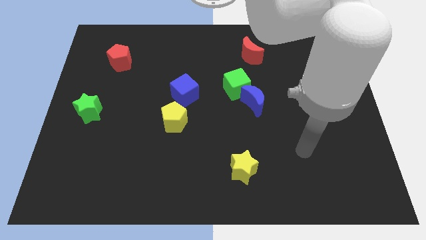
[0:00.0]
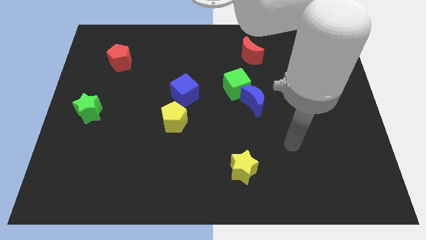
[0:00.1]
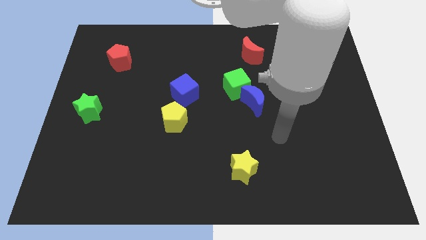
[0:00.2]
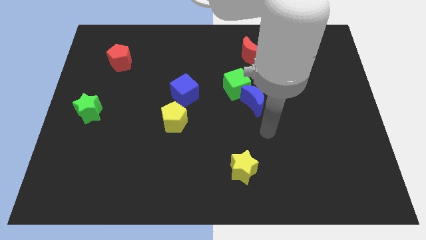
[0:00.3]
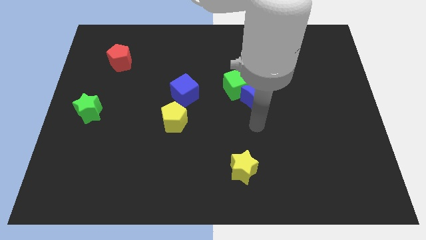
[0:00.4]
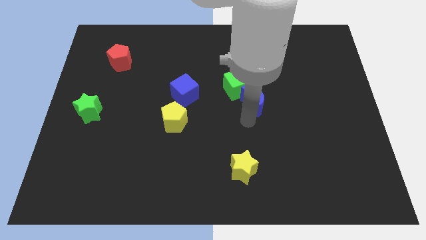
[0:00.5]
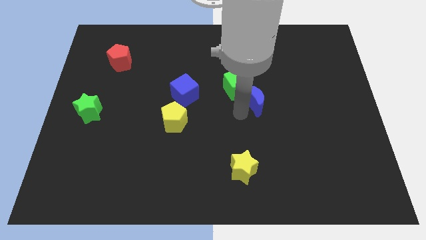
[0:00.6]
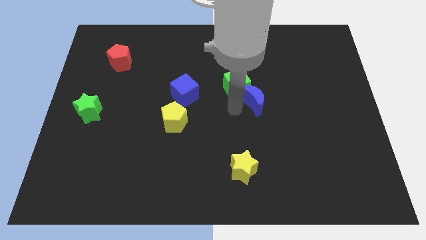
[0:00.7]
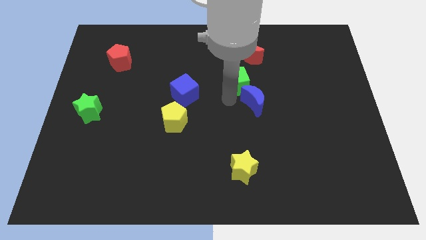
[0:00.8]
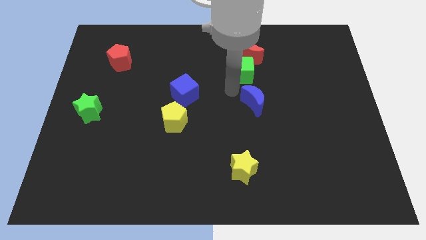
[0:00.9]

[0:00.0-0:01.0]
move the blue moon away from the green cube

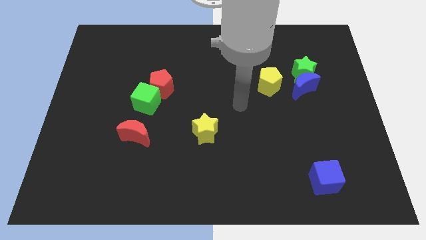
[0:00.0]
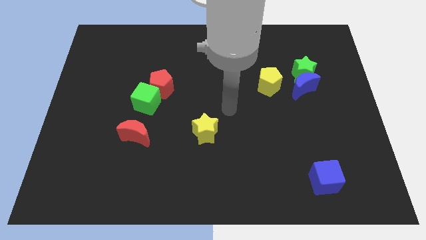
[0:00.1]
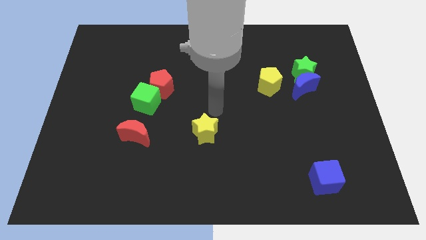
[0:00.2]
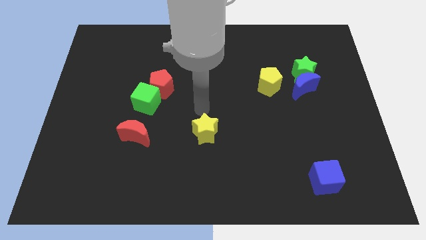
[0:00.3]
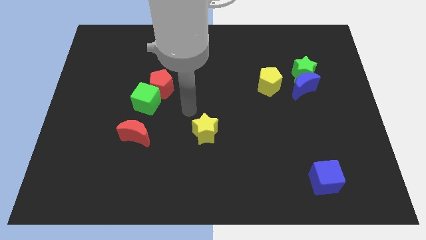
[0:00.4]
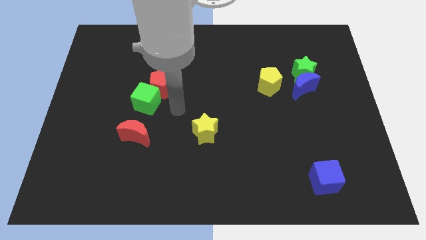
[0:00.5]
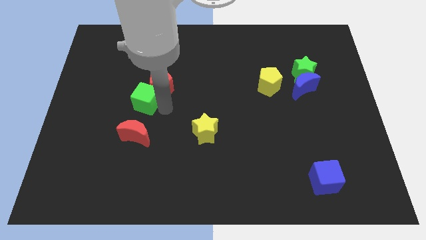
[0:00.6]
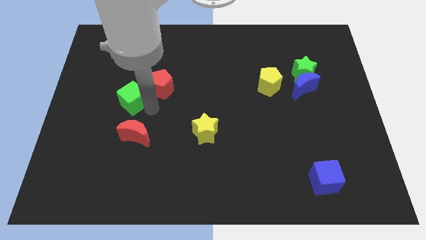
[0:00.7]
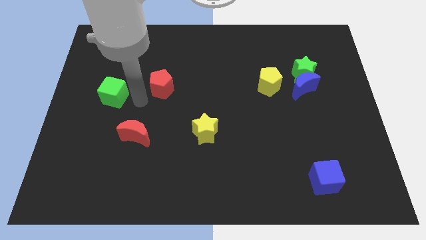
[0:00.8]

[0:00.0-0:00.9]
move the red pentagon away from the green cube

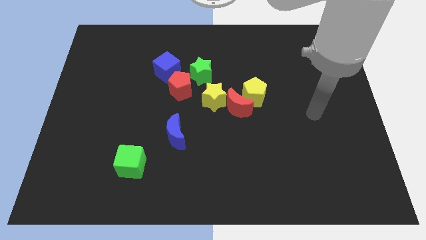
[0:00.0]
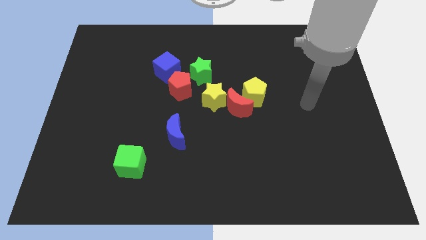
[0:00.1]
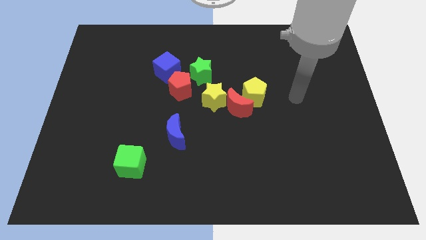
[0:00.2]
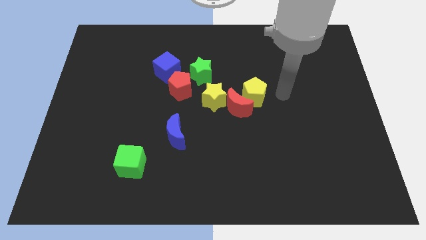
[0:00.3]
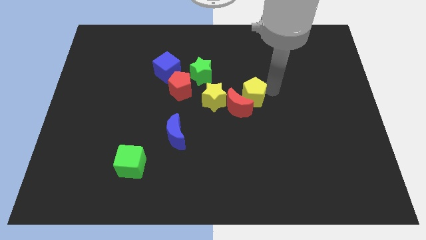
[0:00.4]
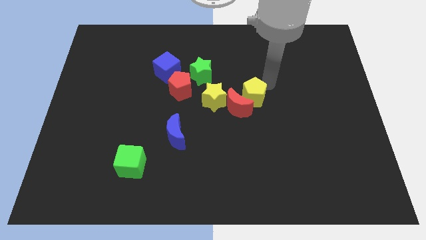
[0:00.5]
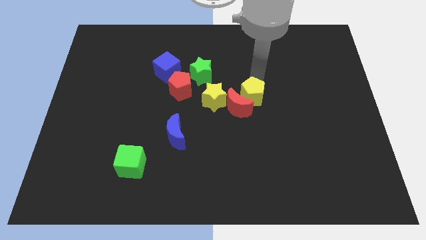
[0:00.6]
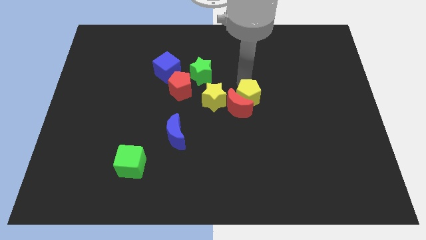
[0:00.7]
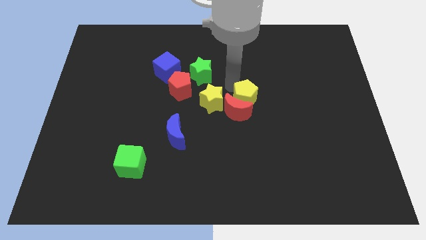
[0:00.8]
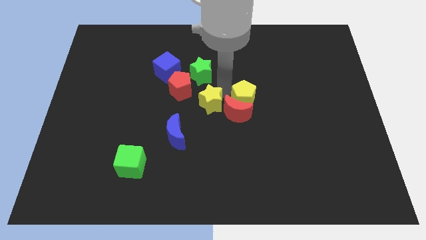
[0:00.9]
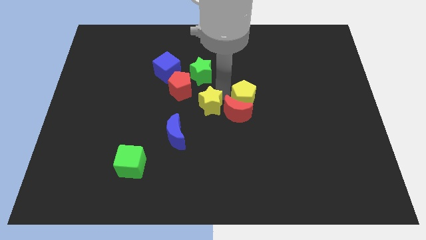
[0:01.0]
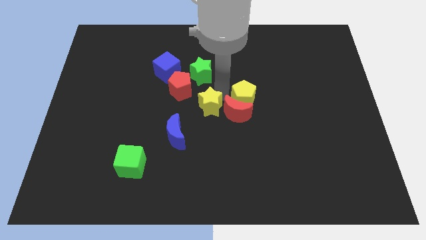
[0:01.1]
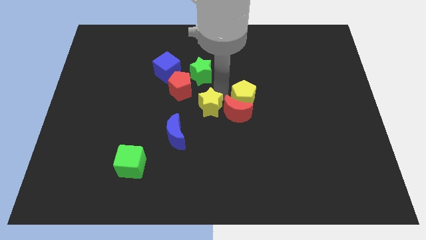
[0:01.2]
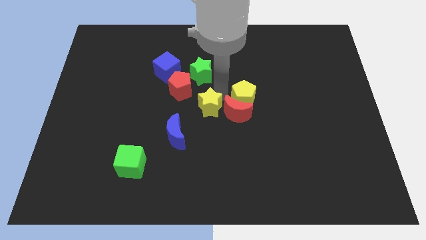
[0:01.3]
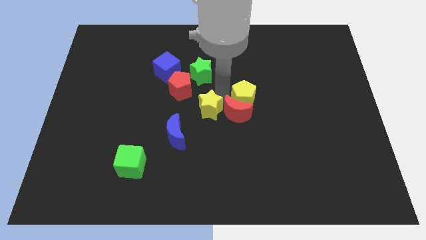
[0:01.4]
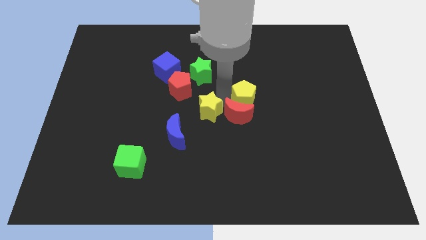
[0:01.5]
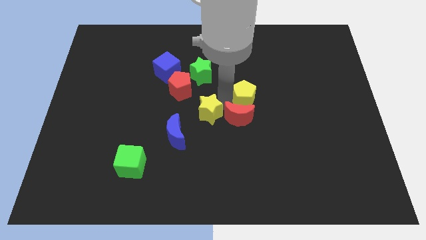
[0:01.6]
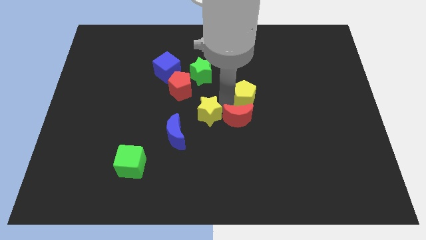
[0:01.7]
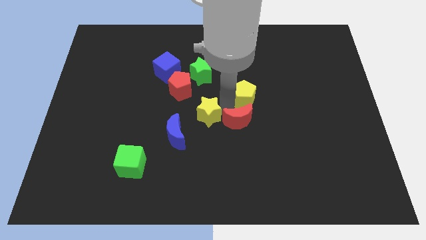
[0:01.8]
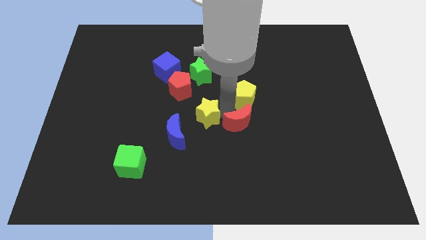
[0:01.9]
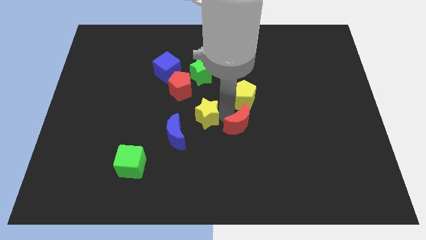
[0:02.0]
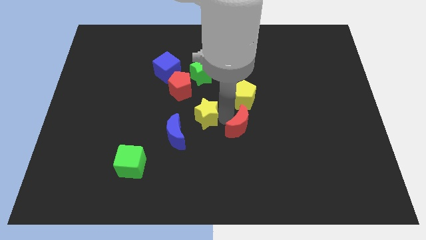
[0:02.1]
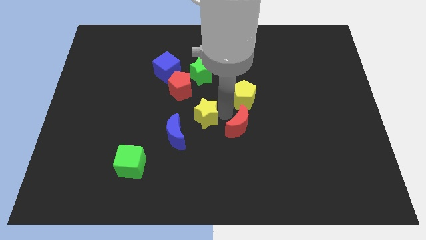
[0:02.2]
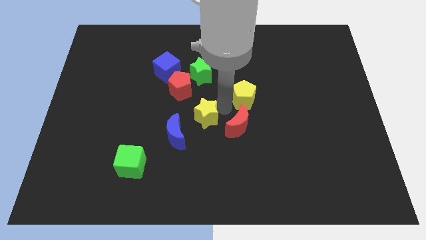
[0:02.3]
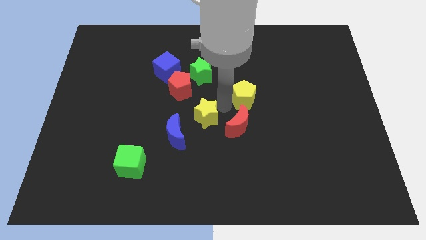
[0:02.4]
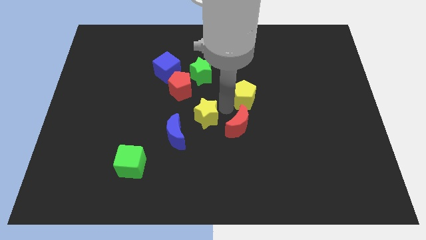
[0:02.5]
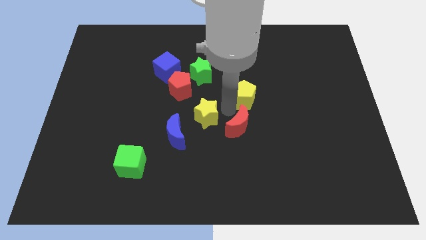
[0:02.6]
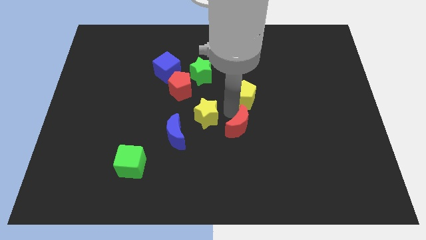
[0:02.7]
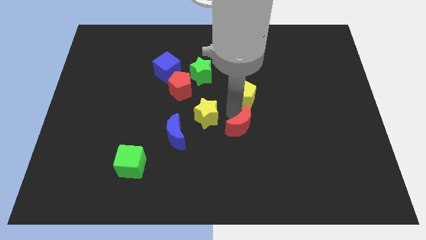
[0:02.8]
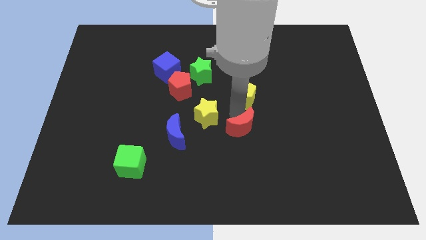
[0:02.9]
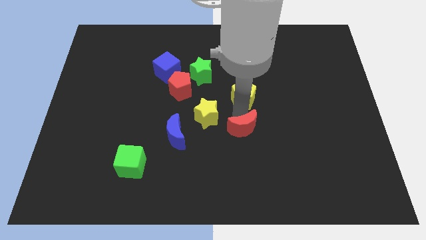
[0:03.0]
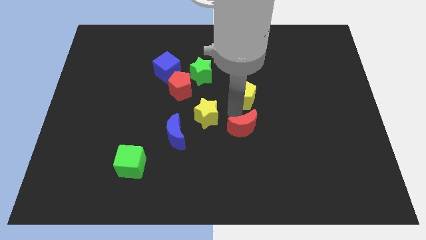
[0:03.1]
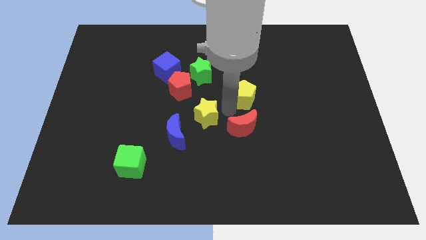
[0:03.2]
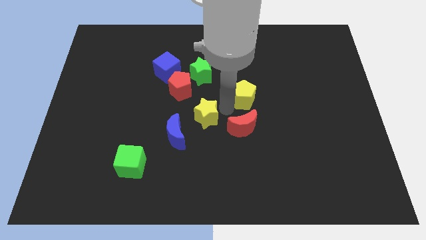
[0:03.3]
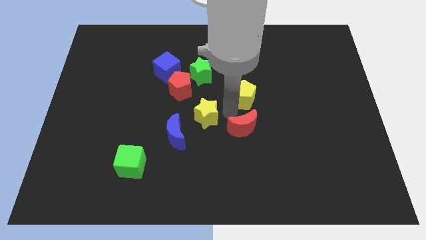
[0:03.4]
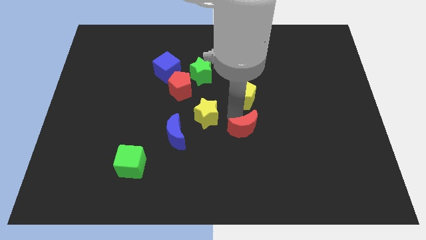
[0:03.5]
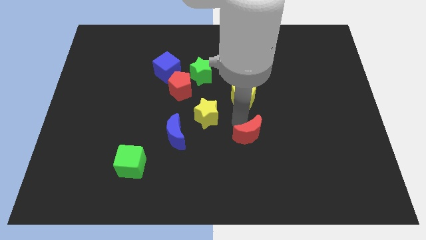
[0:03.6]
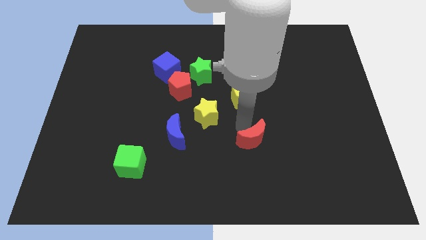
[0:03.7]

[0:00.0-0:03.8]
pull the red moon apart from the yellow pentagon and yellow star

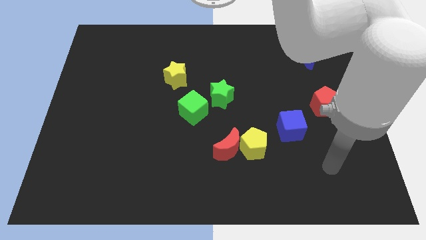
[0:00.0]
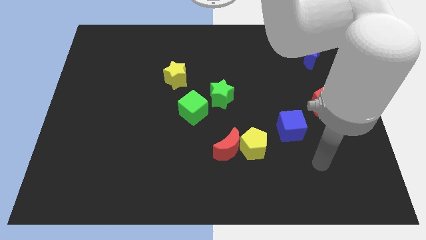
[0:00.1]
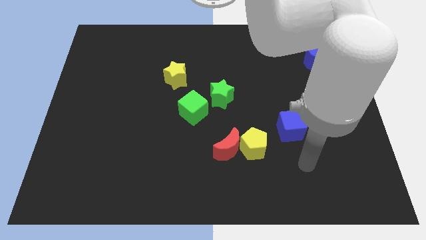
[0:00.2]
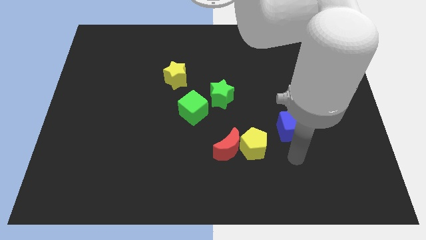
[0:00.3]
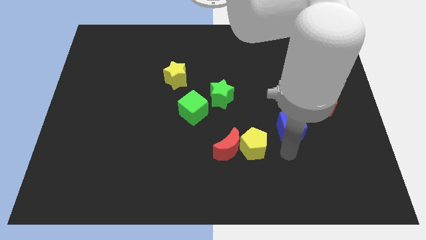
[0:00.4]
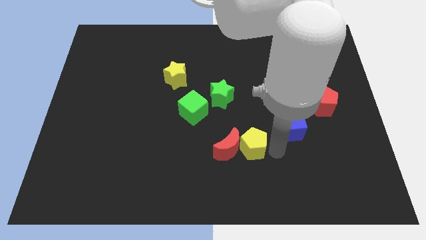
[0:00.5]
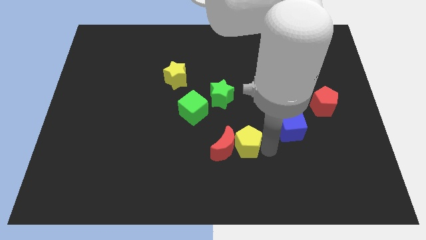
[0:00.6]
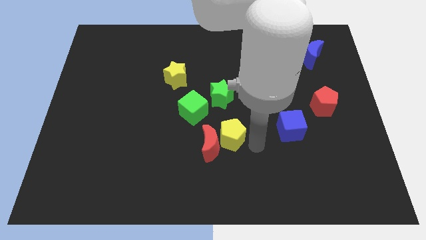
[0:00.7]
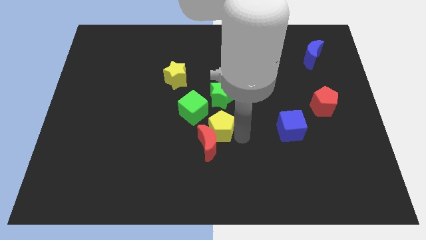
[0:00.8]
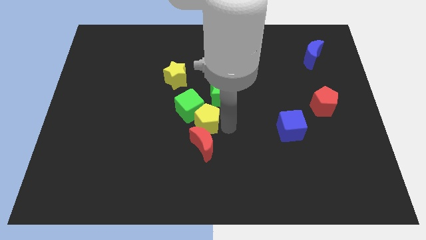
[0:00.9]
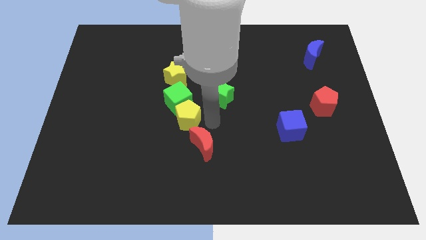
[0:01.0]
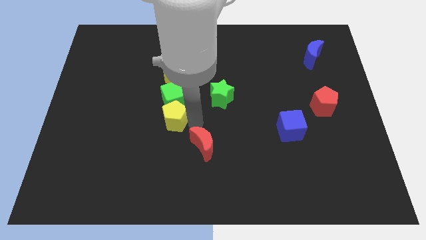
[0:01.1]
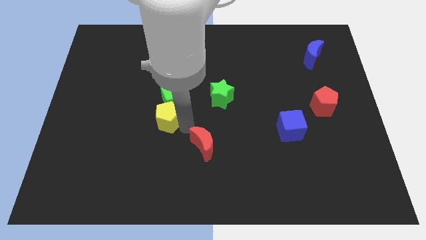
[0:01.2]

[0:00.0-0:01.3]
move the red moon away from the yellow pentagon

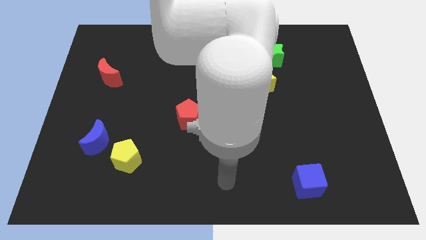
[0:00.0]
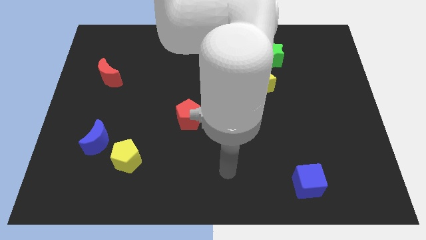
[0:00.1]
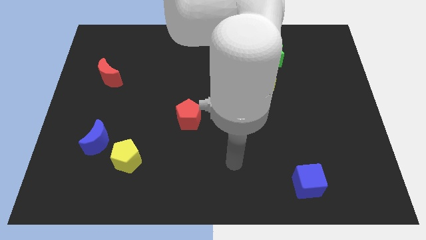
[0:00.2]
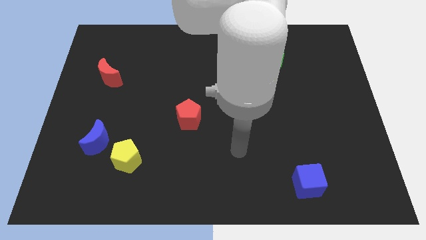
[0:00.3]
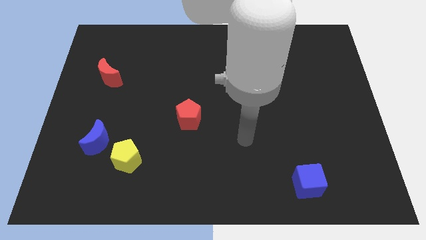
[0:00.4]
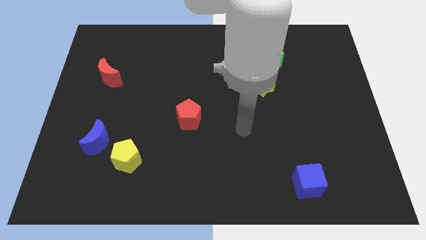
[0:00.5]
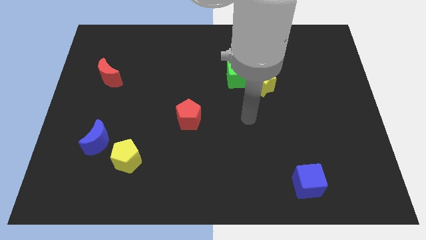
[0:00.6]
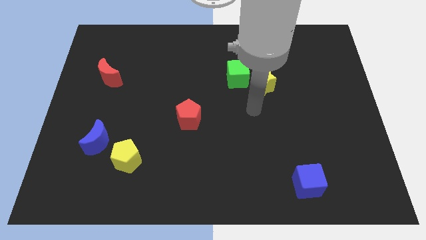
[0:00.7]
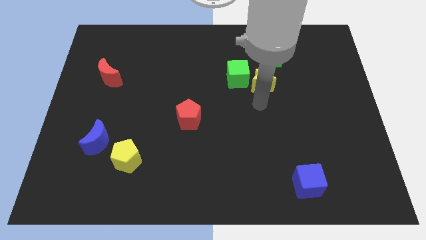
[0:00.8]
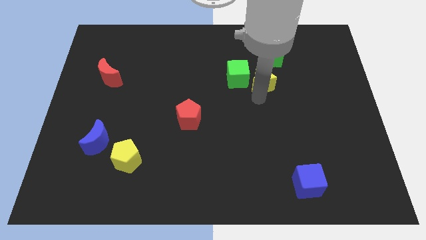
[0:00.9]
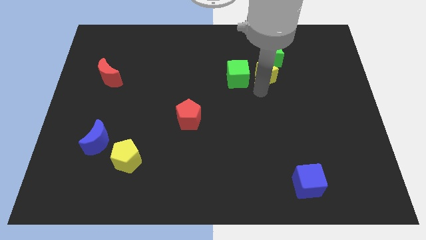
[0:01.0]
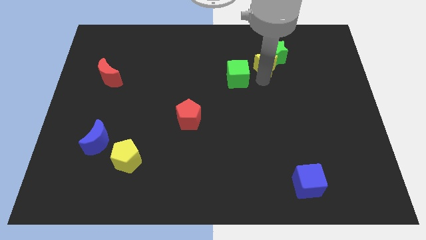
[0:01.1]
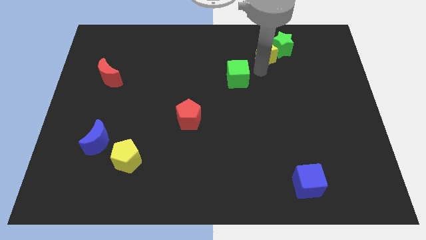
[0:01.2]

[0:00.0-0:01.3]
separate the green cube from the yellow star

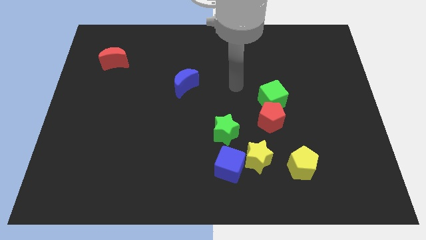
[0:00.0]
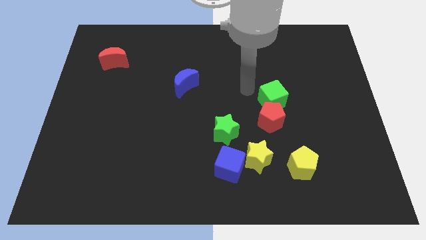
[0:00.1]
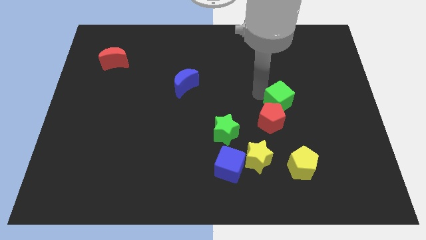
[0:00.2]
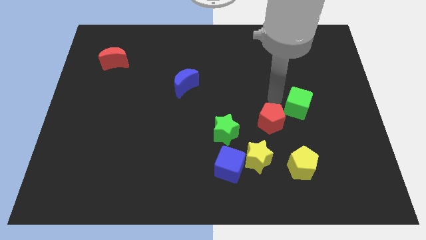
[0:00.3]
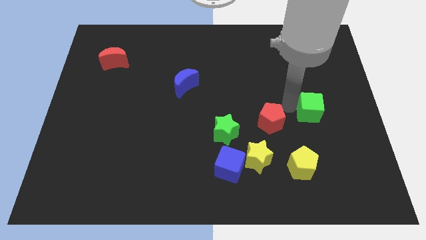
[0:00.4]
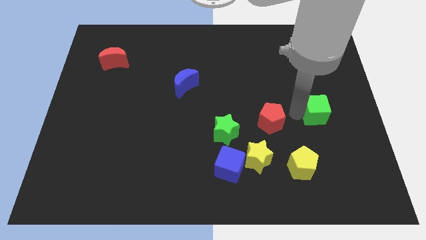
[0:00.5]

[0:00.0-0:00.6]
separate the red pentagon from the green cube

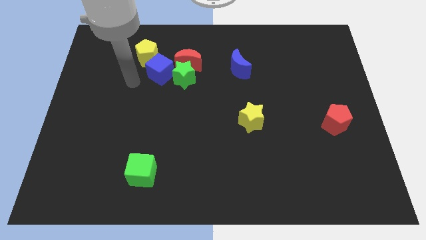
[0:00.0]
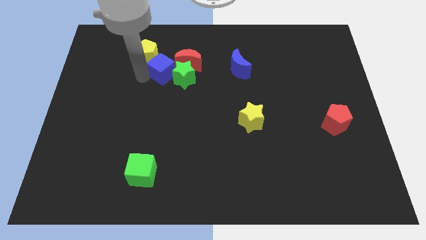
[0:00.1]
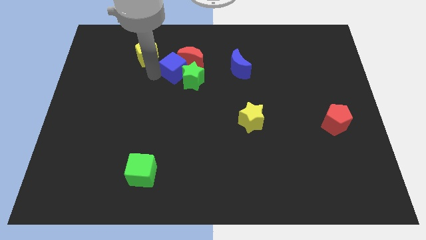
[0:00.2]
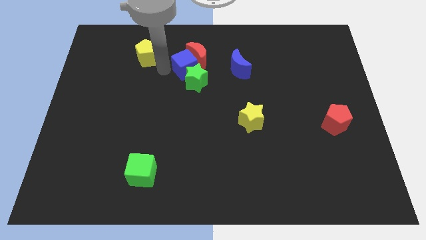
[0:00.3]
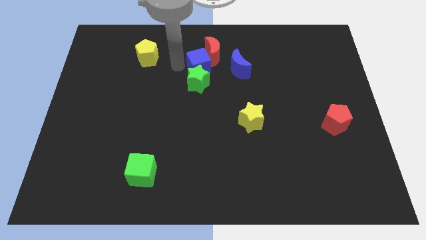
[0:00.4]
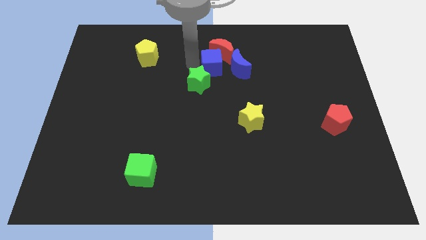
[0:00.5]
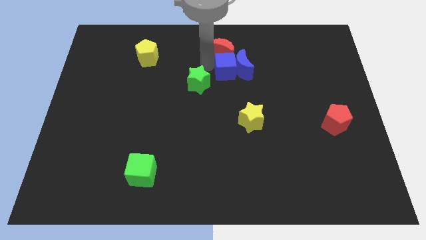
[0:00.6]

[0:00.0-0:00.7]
separate the green star from the red moon and blue cube
